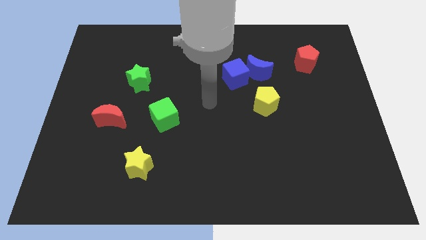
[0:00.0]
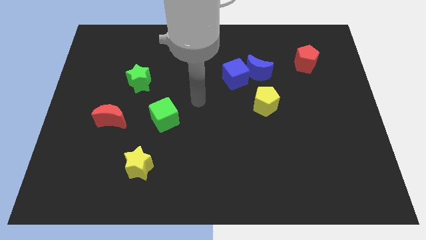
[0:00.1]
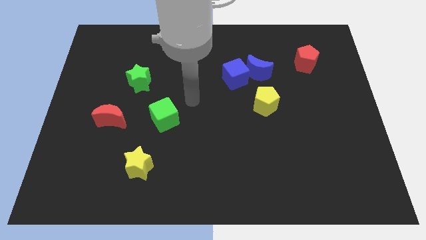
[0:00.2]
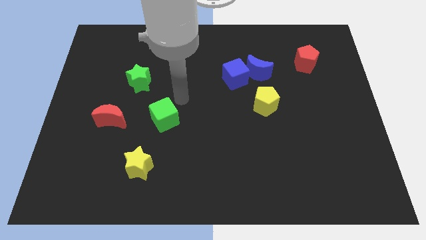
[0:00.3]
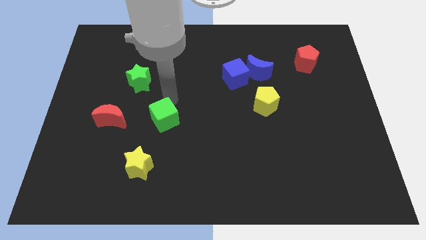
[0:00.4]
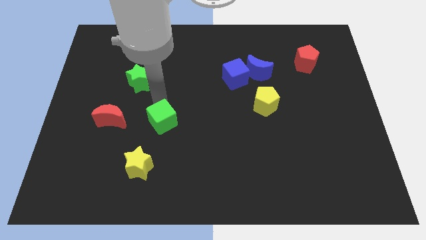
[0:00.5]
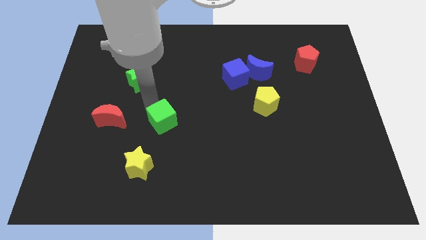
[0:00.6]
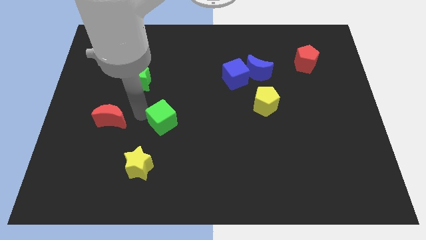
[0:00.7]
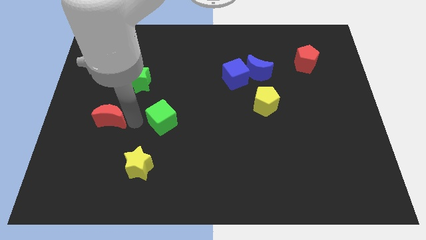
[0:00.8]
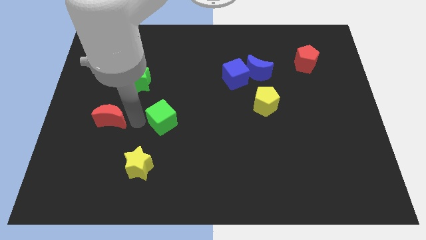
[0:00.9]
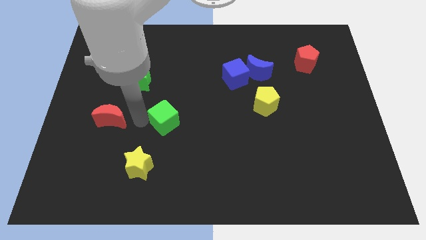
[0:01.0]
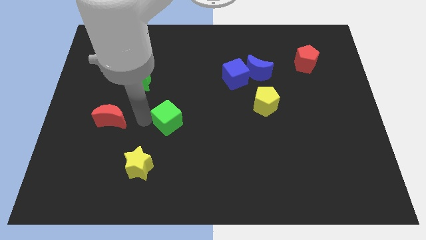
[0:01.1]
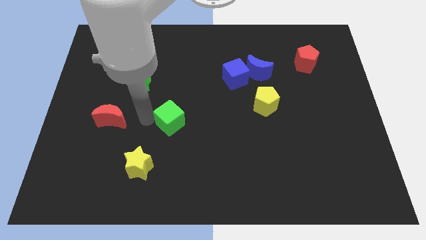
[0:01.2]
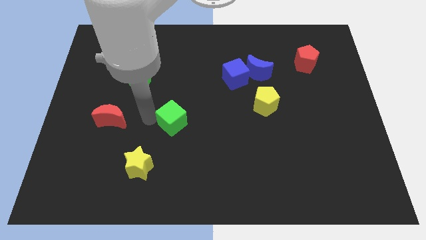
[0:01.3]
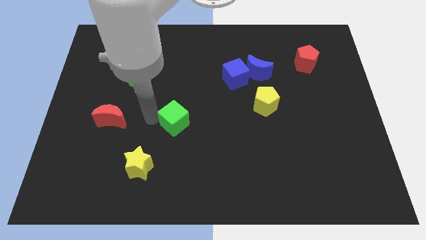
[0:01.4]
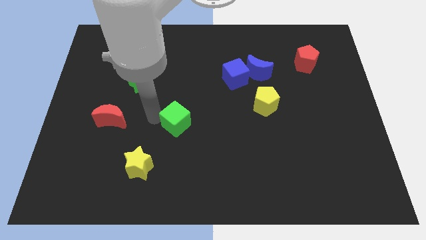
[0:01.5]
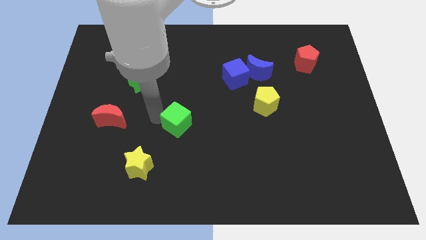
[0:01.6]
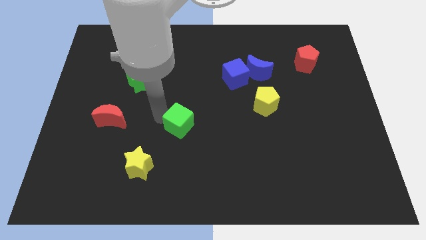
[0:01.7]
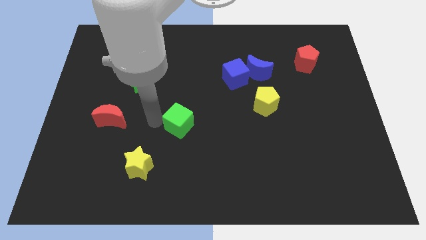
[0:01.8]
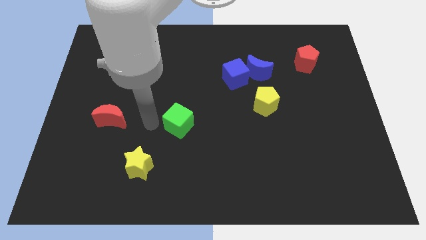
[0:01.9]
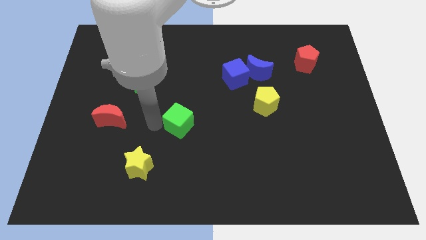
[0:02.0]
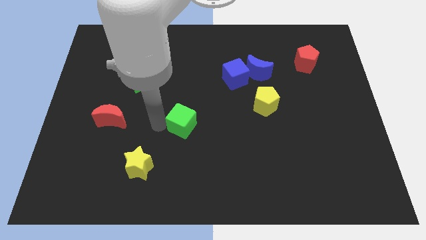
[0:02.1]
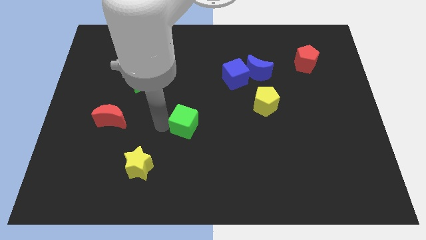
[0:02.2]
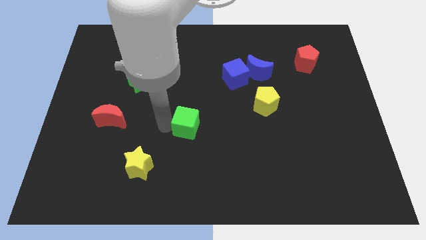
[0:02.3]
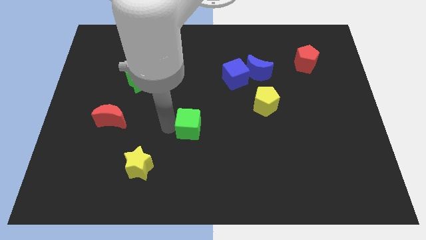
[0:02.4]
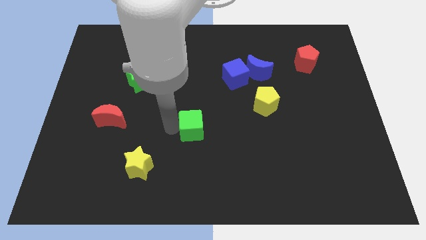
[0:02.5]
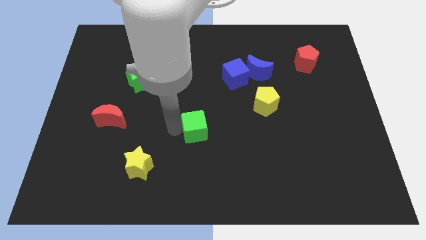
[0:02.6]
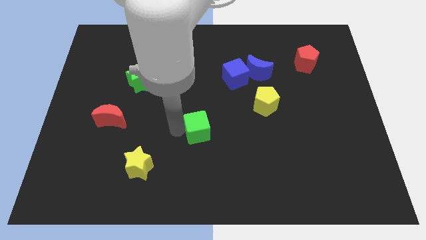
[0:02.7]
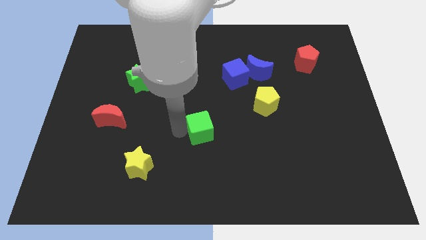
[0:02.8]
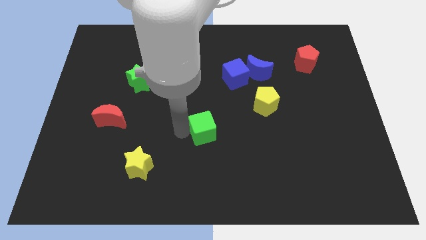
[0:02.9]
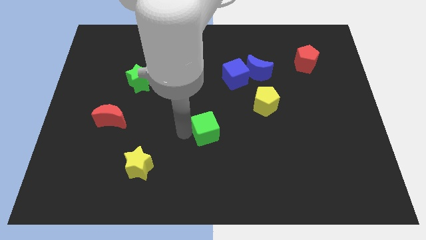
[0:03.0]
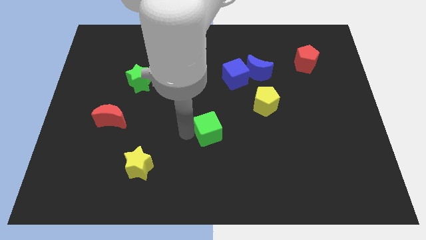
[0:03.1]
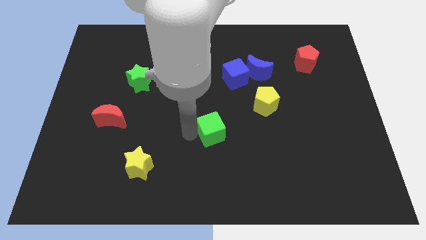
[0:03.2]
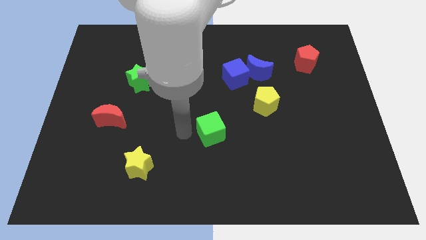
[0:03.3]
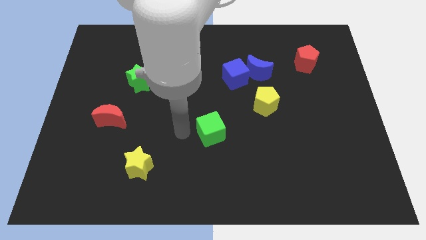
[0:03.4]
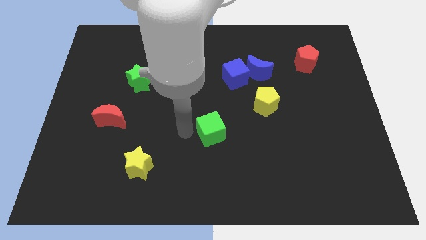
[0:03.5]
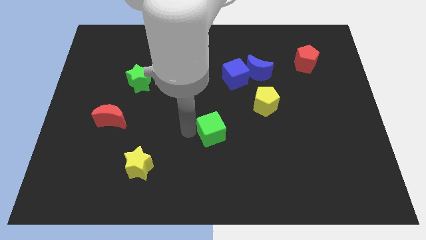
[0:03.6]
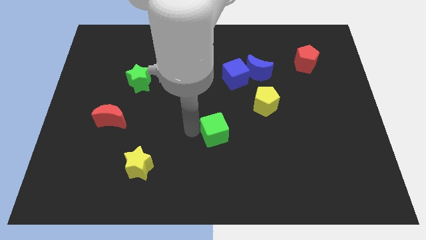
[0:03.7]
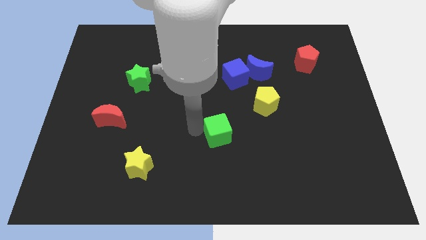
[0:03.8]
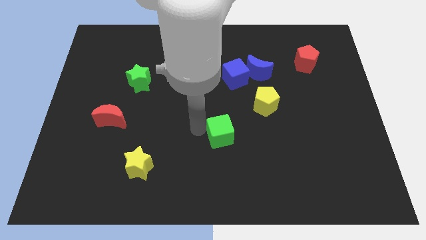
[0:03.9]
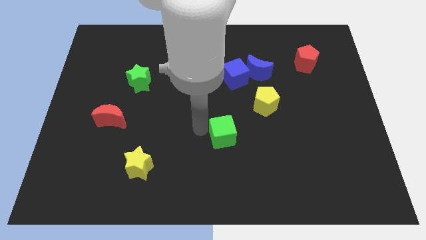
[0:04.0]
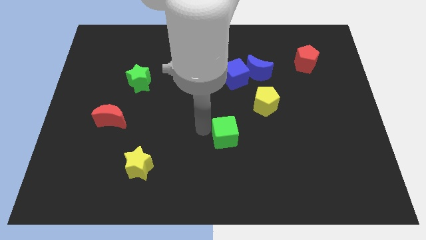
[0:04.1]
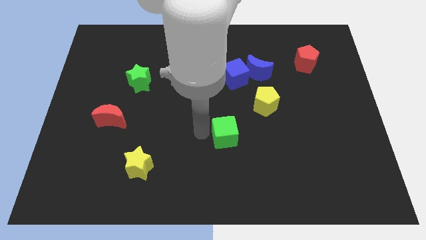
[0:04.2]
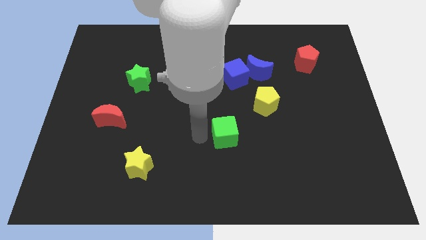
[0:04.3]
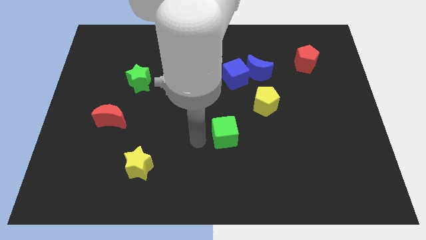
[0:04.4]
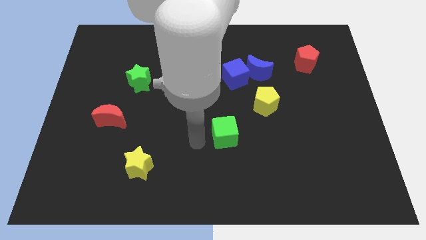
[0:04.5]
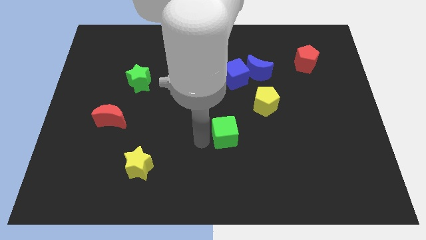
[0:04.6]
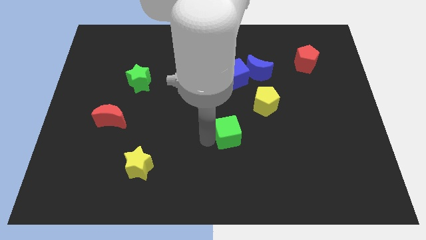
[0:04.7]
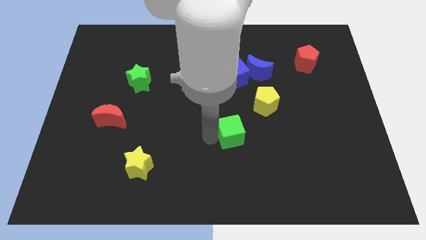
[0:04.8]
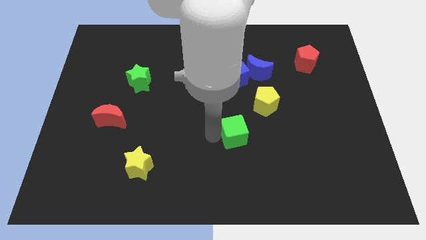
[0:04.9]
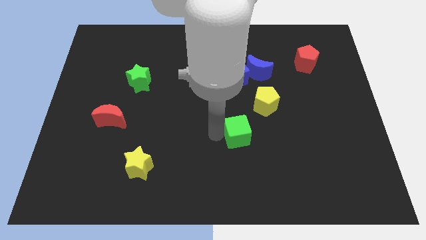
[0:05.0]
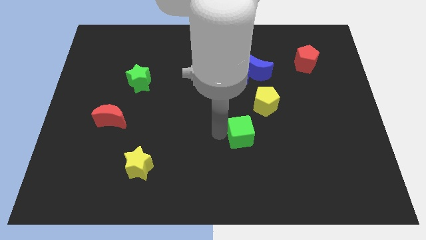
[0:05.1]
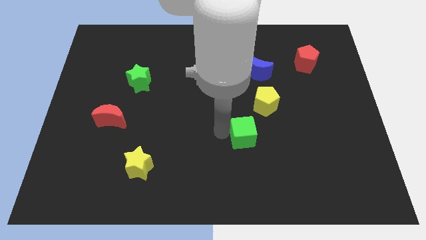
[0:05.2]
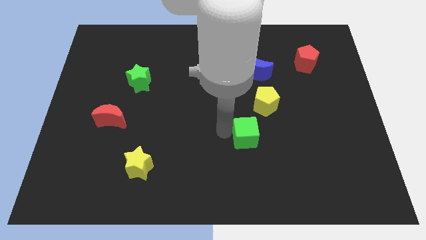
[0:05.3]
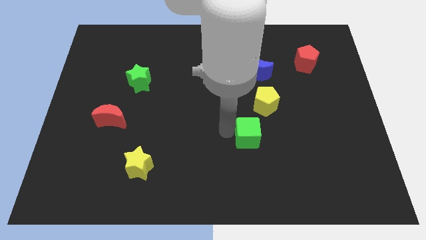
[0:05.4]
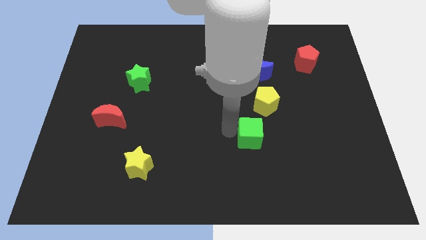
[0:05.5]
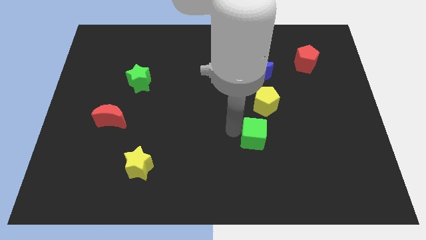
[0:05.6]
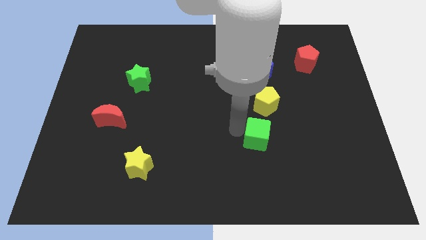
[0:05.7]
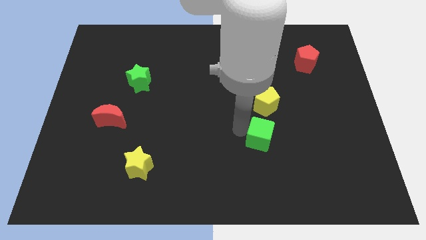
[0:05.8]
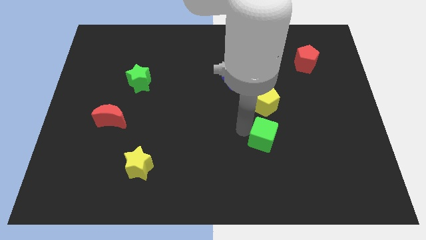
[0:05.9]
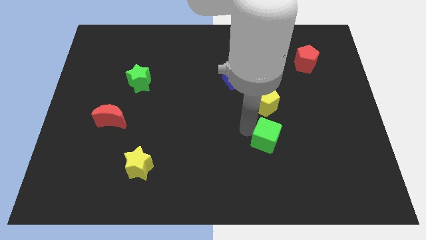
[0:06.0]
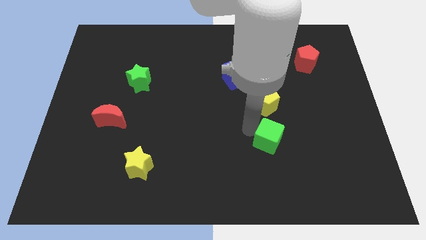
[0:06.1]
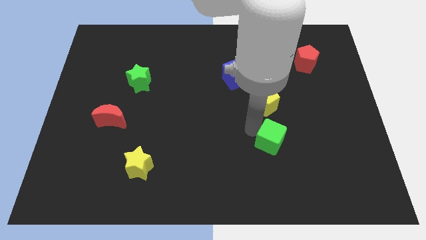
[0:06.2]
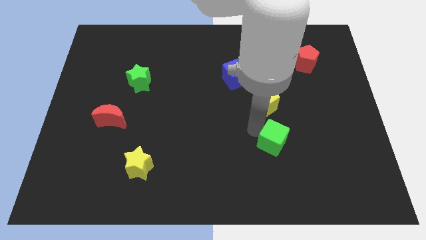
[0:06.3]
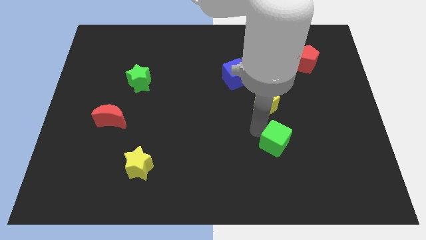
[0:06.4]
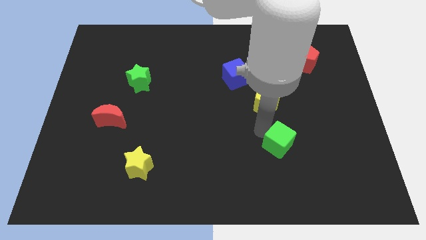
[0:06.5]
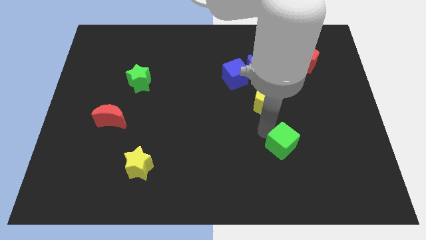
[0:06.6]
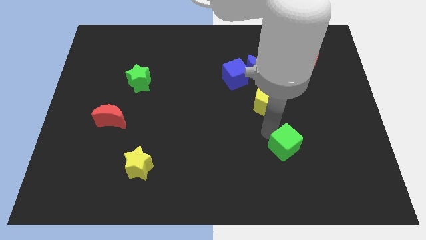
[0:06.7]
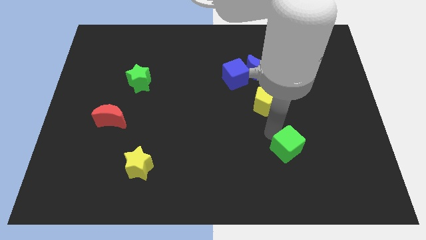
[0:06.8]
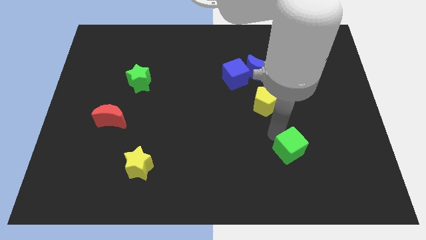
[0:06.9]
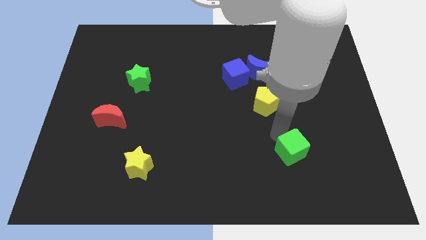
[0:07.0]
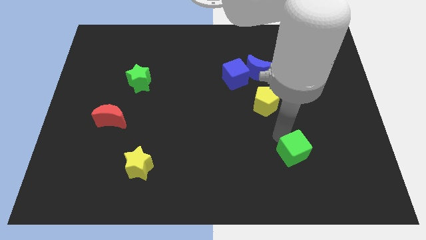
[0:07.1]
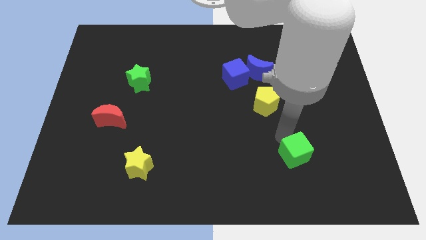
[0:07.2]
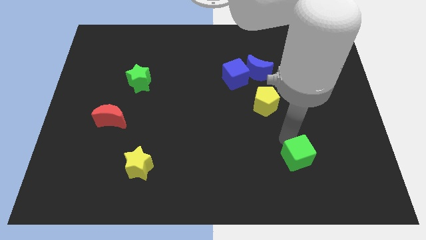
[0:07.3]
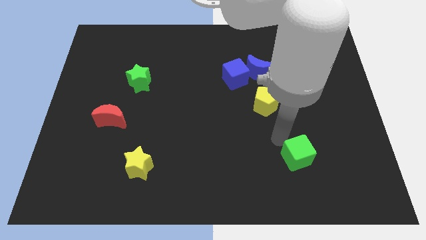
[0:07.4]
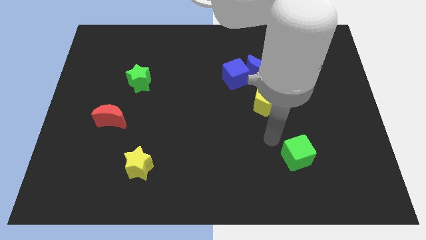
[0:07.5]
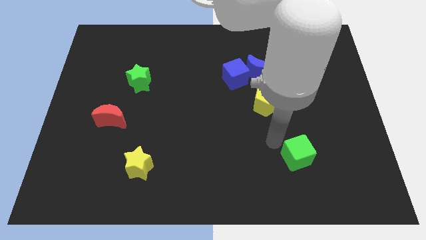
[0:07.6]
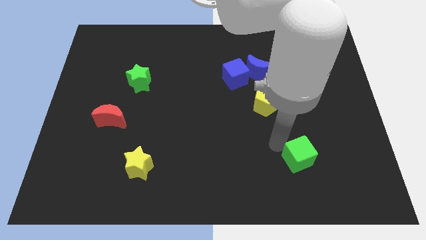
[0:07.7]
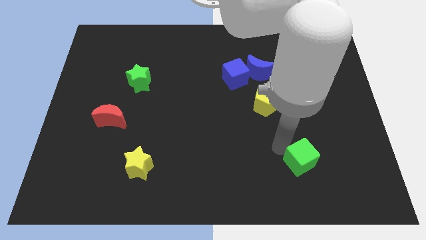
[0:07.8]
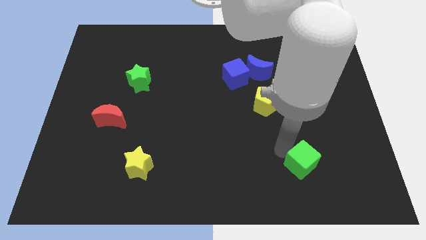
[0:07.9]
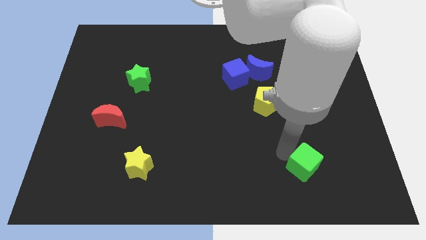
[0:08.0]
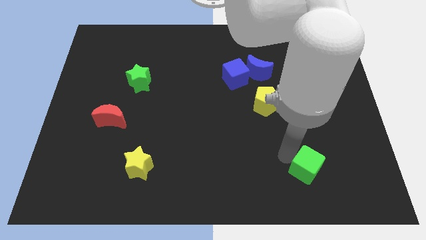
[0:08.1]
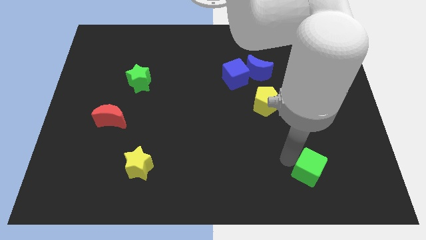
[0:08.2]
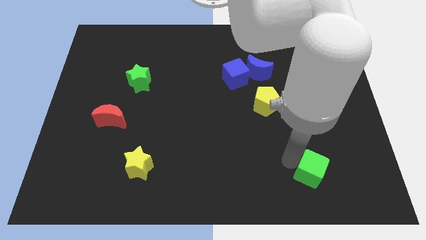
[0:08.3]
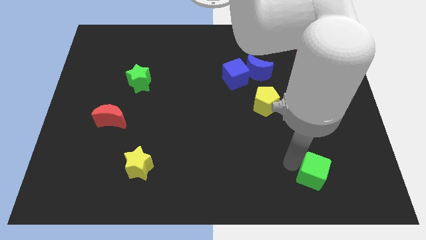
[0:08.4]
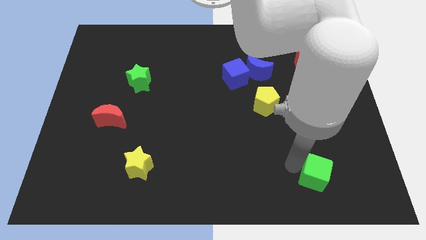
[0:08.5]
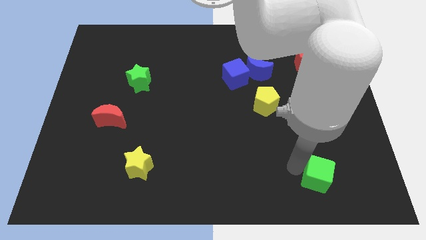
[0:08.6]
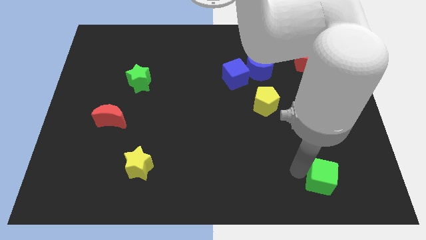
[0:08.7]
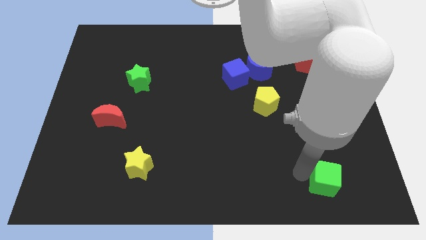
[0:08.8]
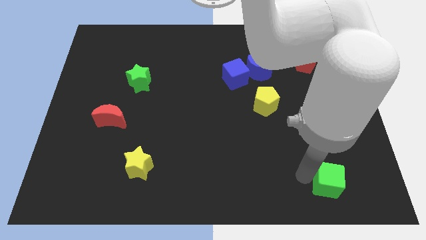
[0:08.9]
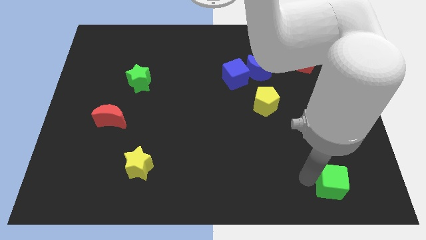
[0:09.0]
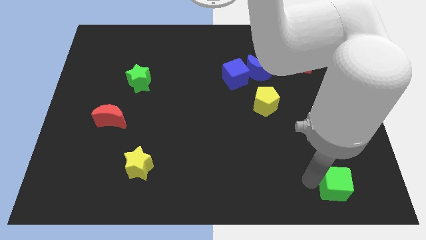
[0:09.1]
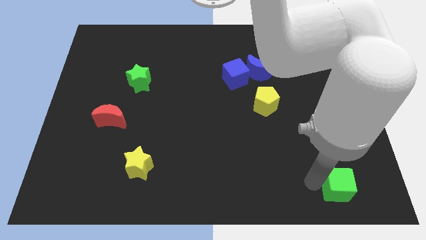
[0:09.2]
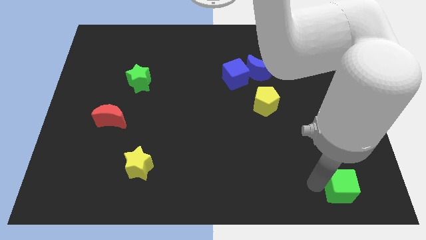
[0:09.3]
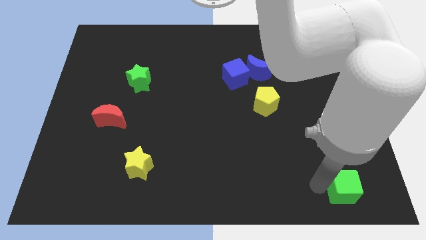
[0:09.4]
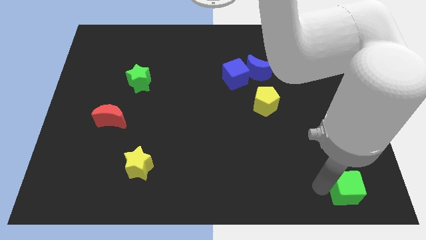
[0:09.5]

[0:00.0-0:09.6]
slide the green cube to the bottom right corner
